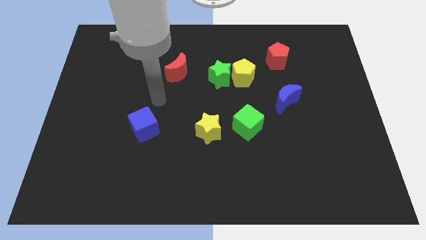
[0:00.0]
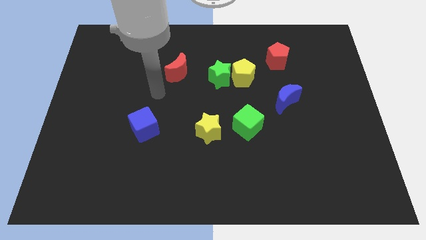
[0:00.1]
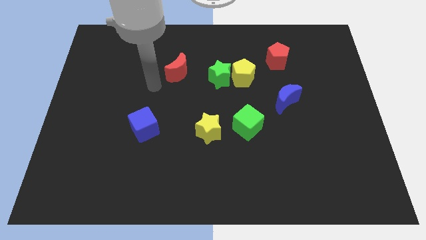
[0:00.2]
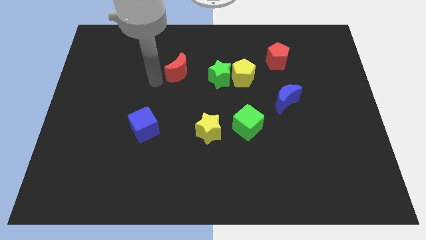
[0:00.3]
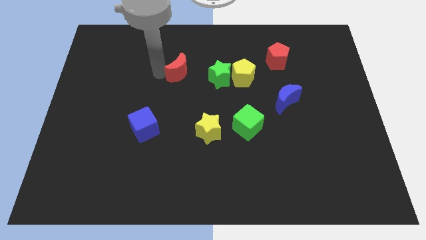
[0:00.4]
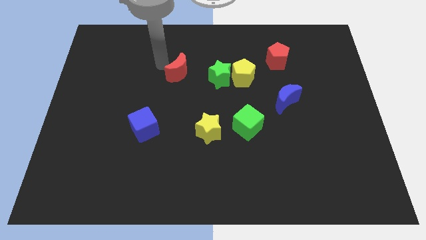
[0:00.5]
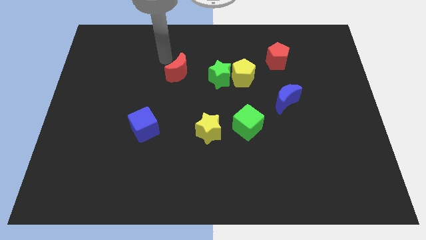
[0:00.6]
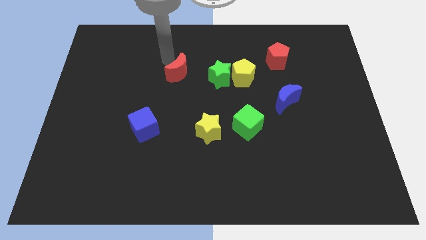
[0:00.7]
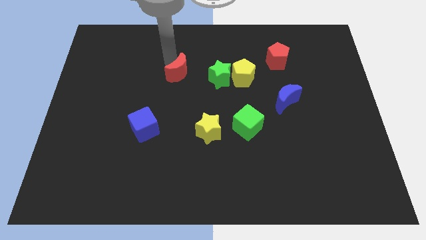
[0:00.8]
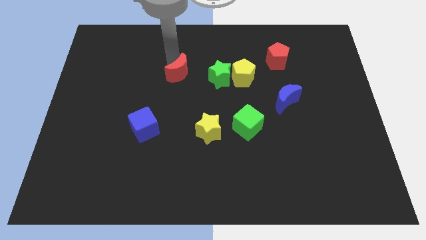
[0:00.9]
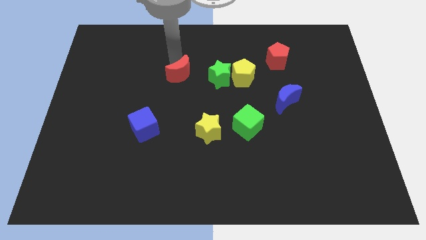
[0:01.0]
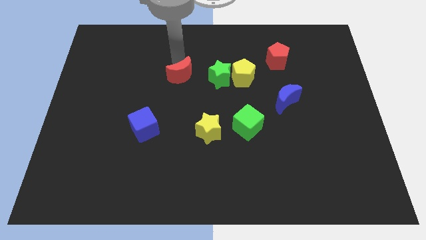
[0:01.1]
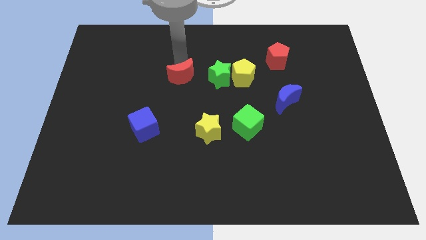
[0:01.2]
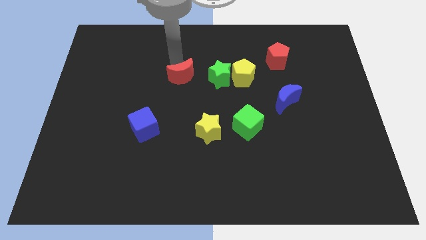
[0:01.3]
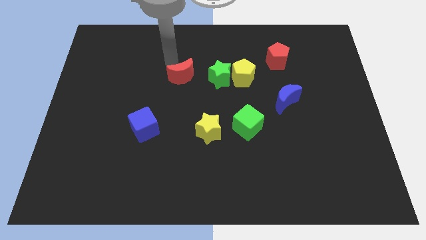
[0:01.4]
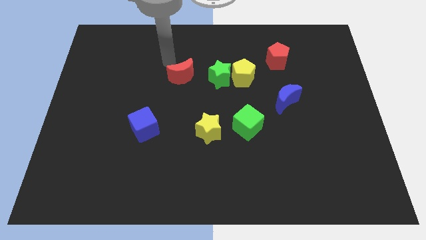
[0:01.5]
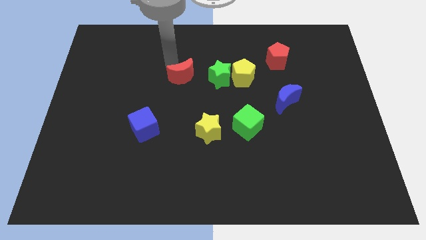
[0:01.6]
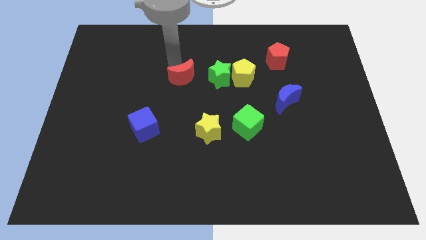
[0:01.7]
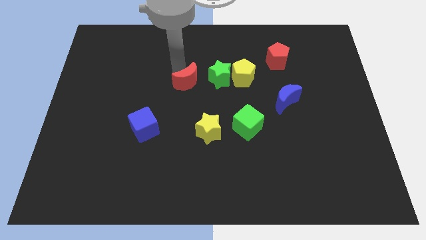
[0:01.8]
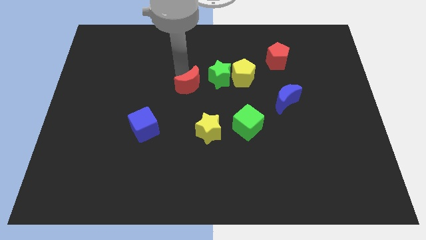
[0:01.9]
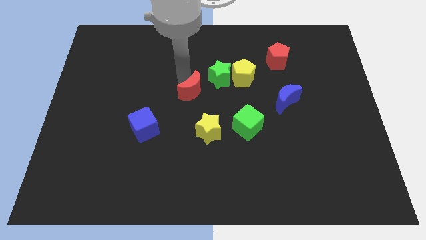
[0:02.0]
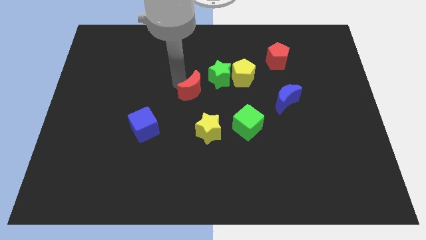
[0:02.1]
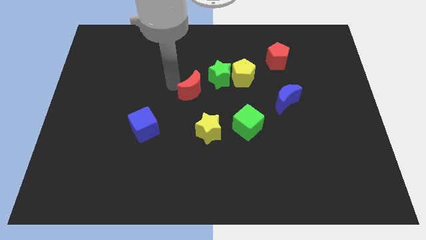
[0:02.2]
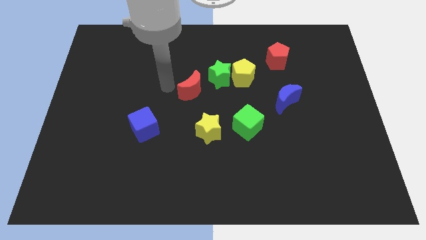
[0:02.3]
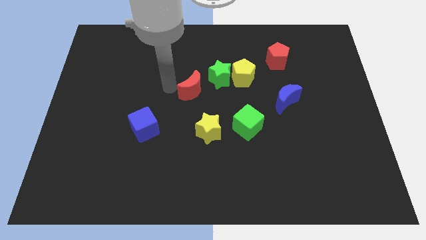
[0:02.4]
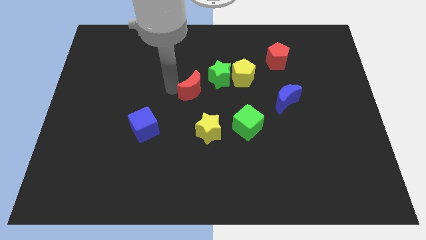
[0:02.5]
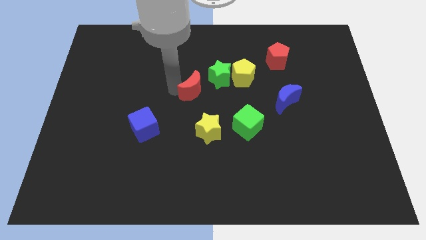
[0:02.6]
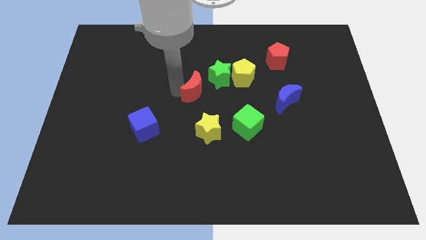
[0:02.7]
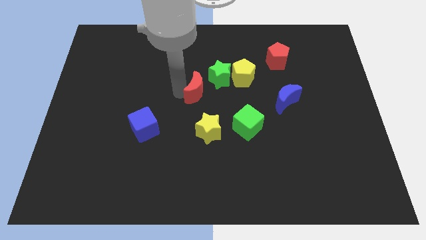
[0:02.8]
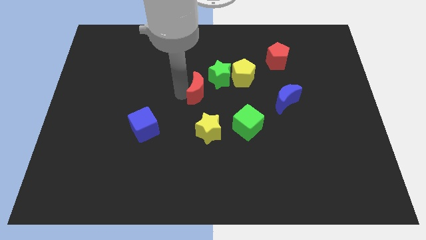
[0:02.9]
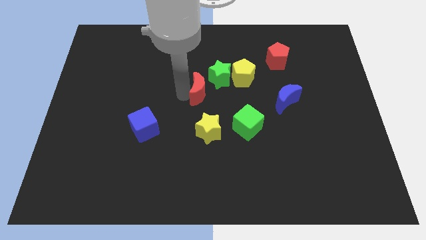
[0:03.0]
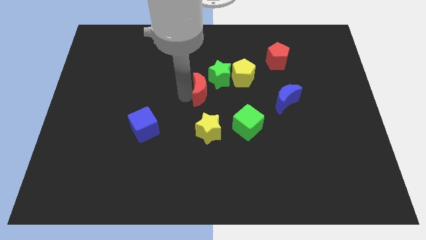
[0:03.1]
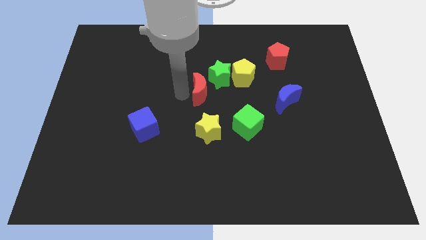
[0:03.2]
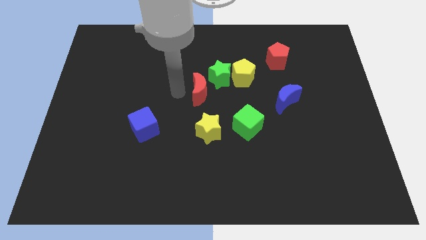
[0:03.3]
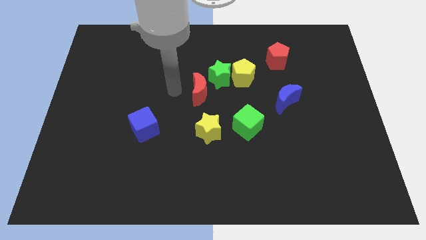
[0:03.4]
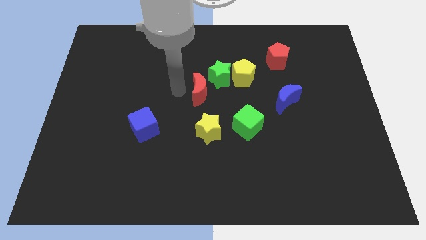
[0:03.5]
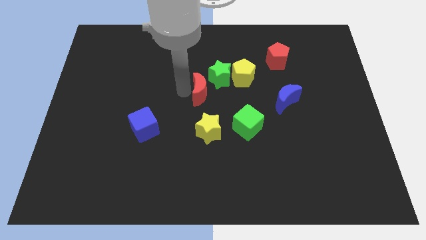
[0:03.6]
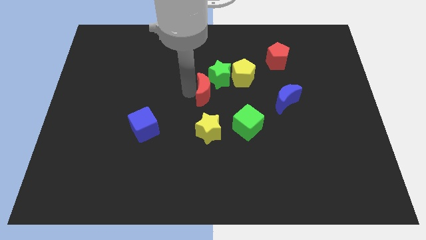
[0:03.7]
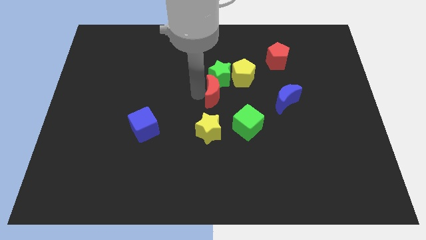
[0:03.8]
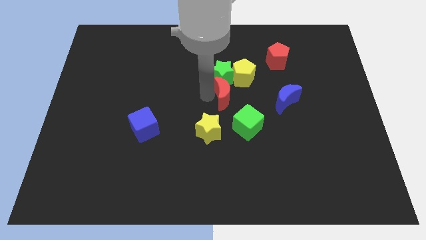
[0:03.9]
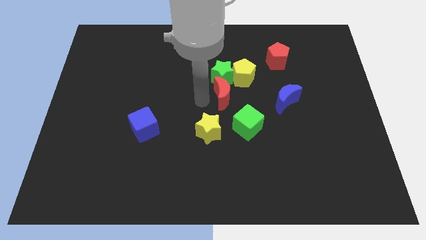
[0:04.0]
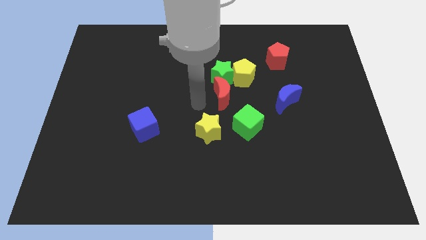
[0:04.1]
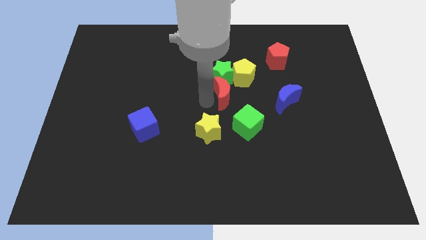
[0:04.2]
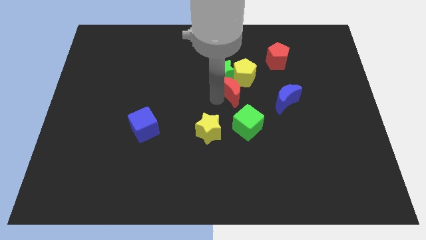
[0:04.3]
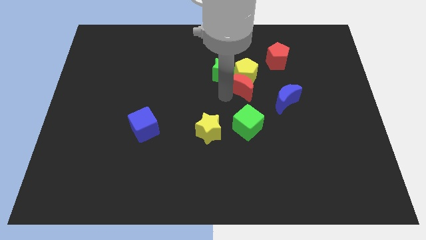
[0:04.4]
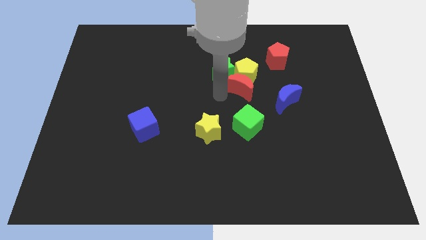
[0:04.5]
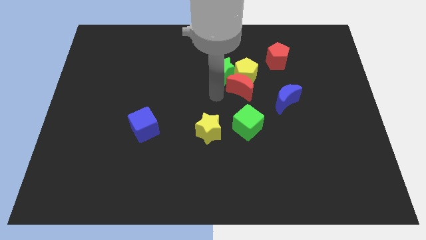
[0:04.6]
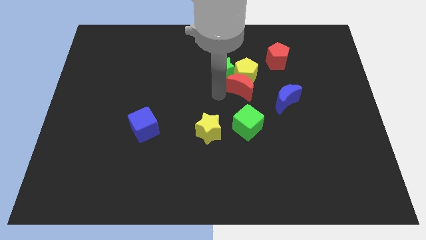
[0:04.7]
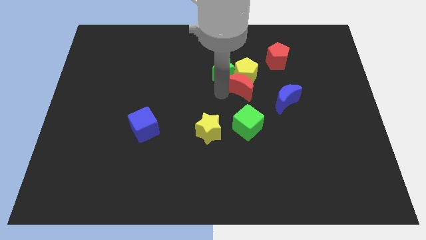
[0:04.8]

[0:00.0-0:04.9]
put the red moon to the top left side of the blue moon

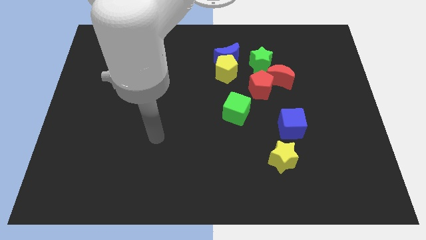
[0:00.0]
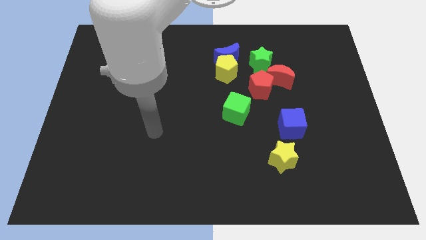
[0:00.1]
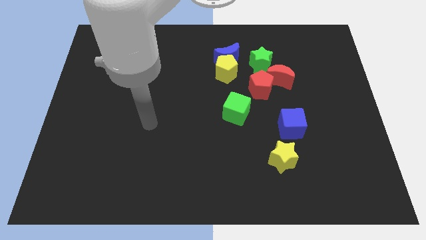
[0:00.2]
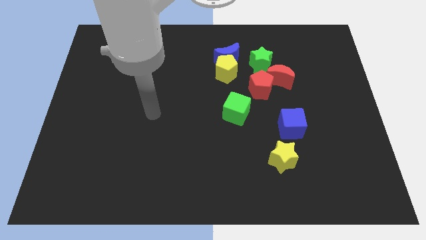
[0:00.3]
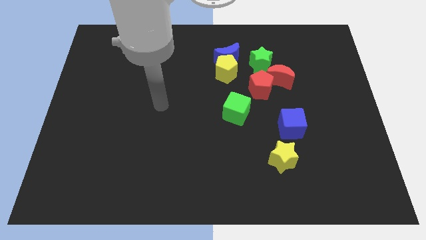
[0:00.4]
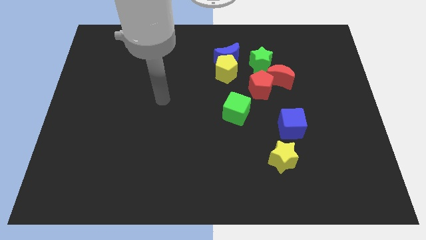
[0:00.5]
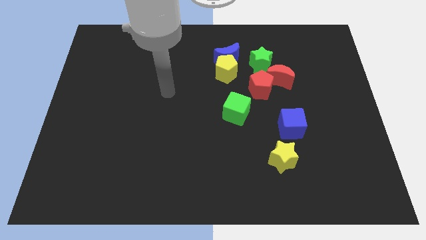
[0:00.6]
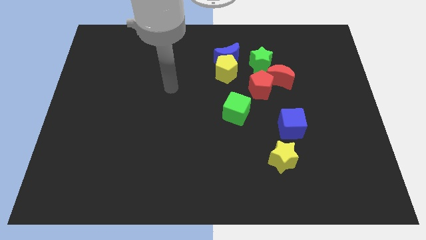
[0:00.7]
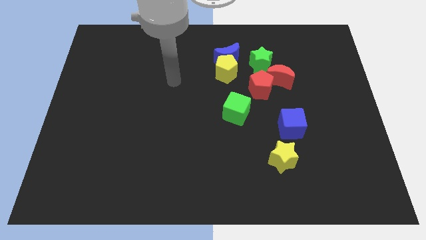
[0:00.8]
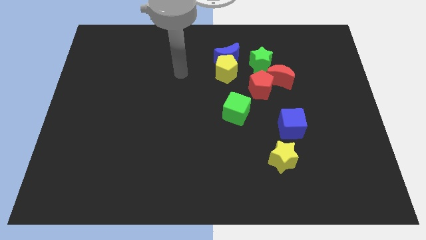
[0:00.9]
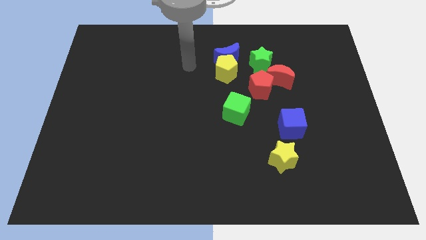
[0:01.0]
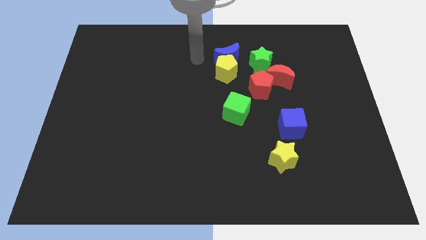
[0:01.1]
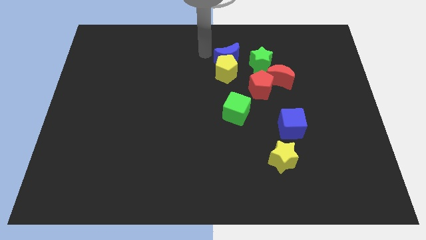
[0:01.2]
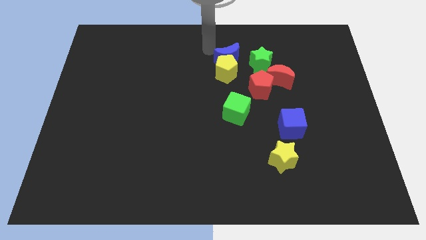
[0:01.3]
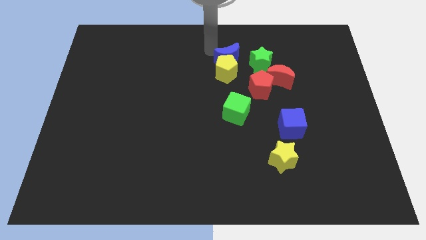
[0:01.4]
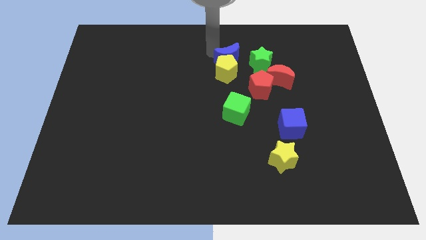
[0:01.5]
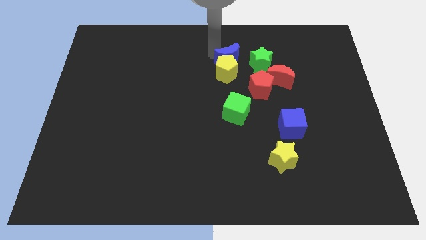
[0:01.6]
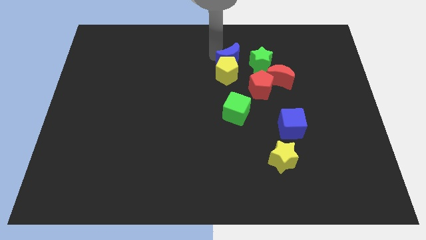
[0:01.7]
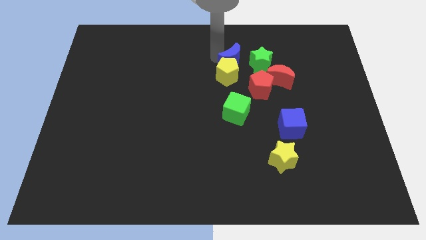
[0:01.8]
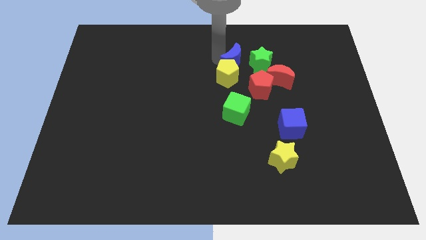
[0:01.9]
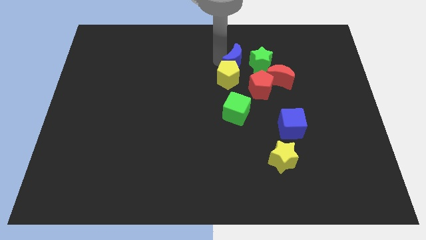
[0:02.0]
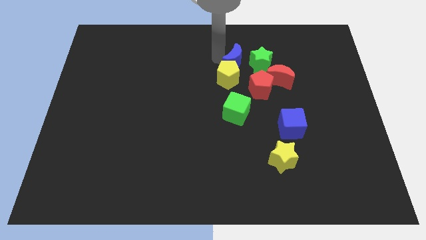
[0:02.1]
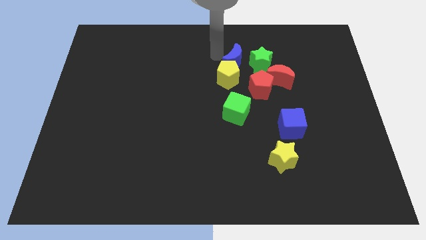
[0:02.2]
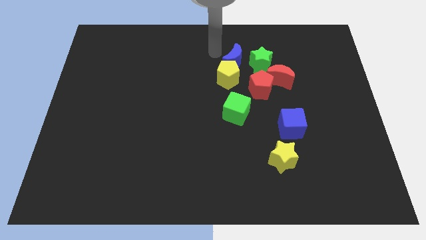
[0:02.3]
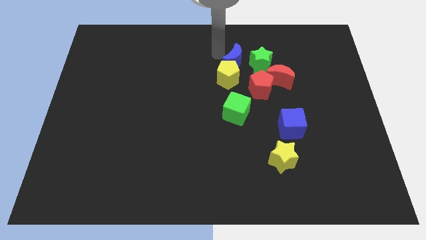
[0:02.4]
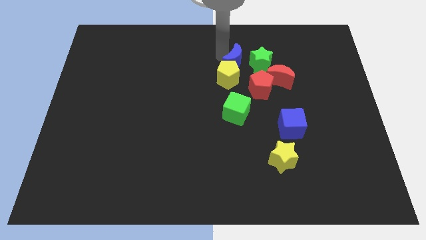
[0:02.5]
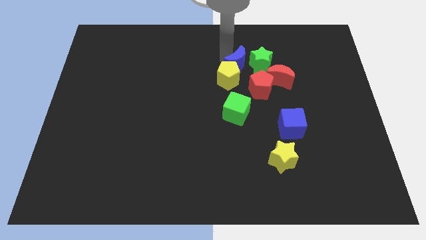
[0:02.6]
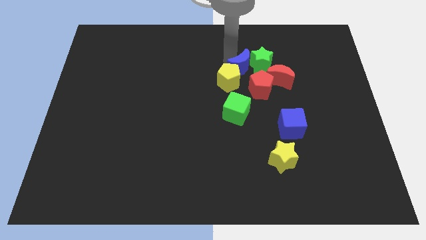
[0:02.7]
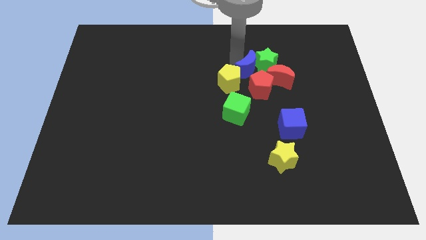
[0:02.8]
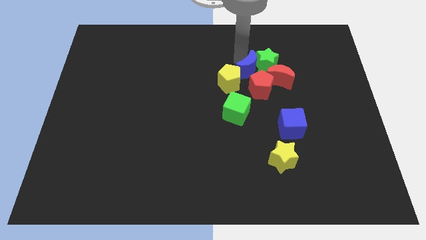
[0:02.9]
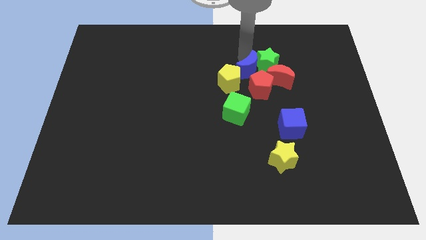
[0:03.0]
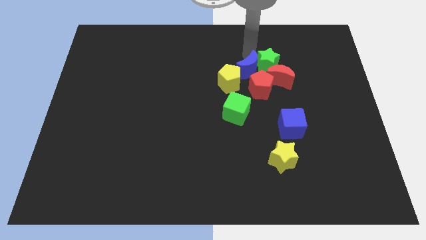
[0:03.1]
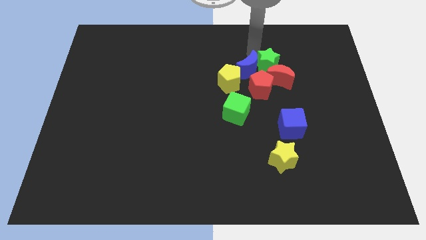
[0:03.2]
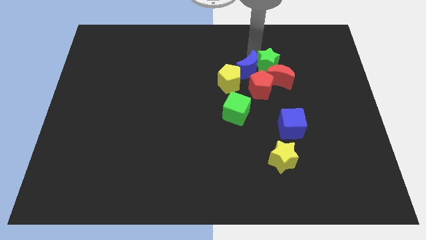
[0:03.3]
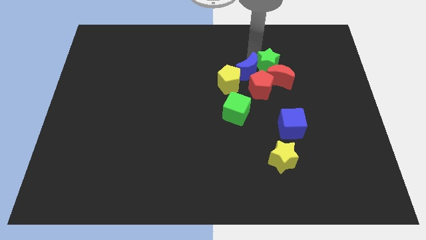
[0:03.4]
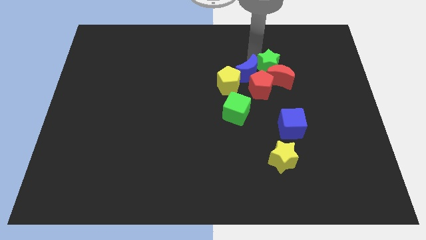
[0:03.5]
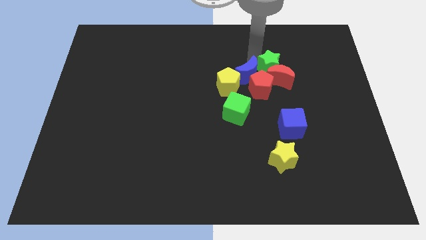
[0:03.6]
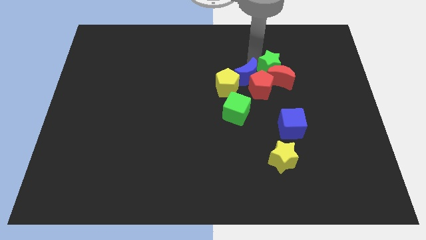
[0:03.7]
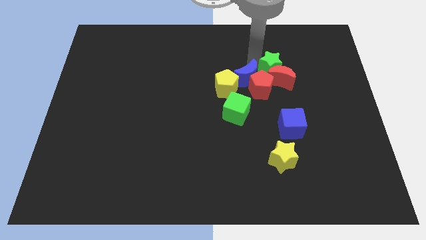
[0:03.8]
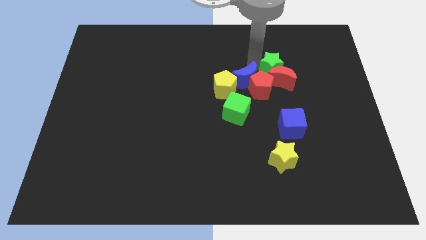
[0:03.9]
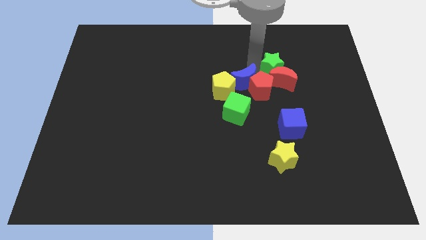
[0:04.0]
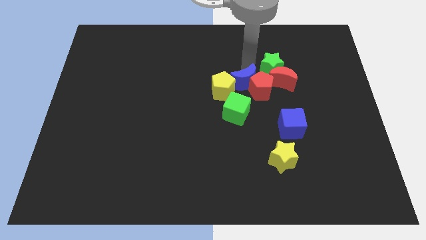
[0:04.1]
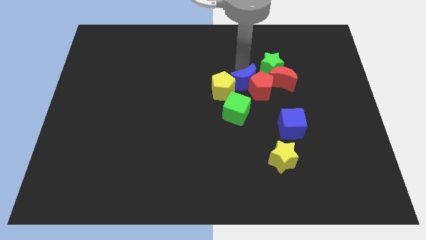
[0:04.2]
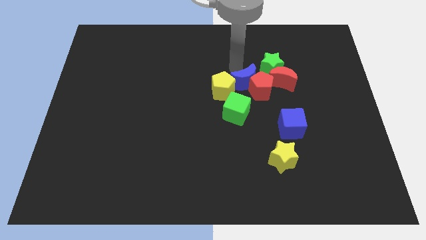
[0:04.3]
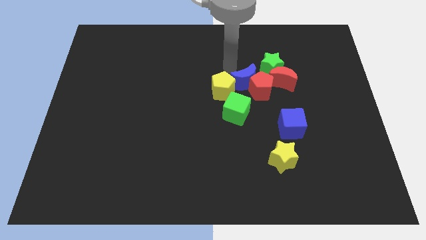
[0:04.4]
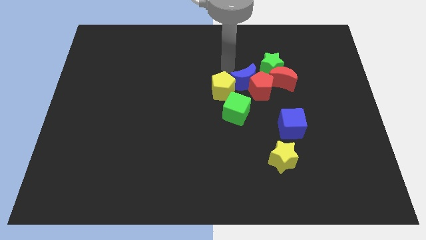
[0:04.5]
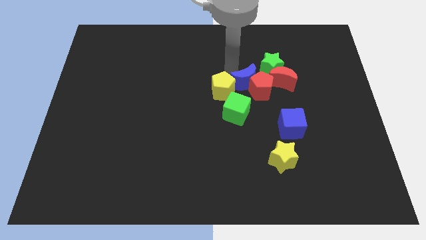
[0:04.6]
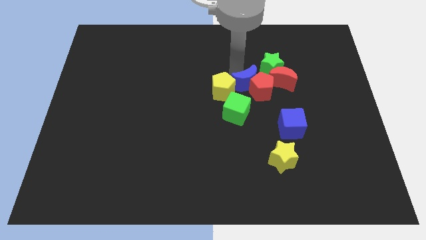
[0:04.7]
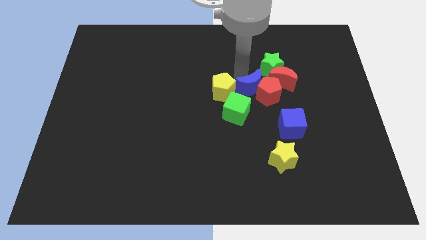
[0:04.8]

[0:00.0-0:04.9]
put the blue moon diagonally down and to the left of the red moon
